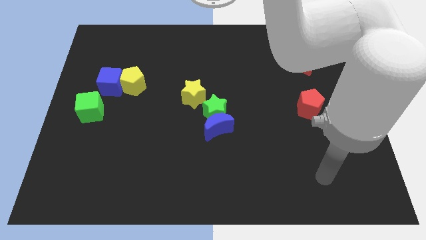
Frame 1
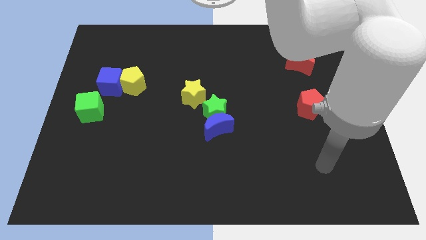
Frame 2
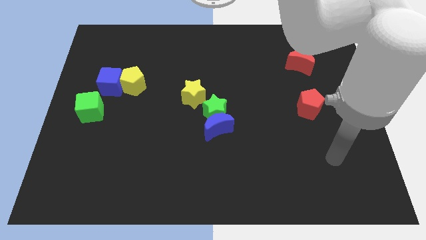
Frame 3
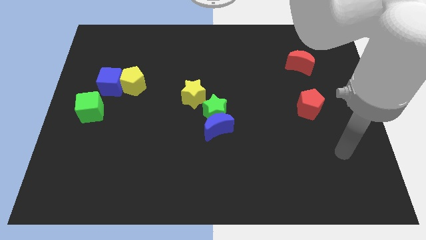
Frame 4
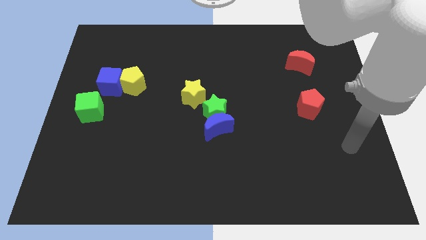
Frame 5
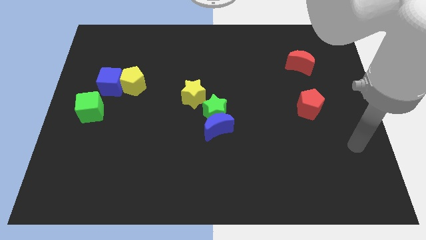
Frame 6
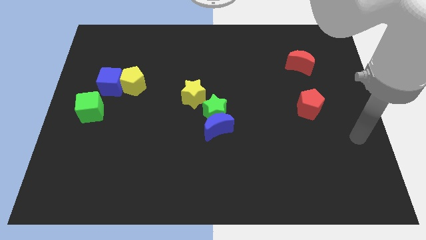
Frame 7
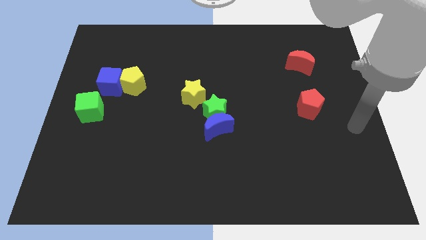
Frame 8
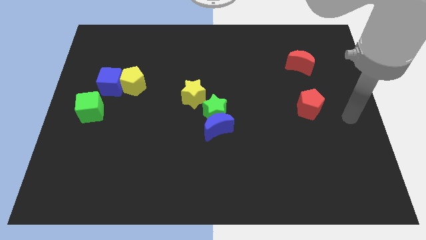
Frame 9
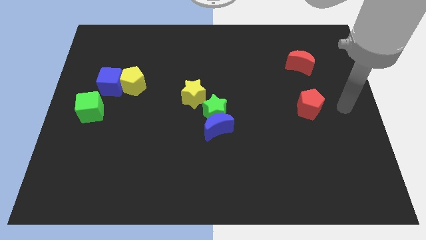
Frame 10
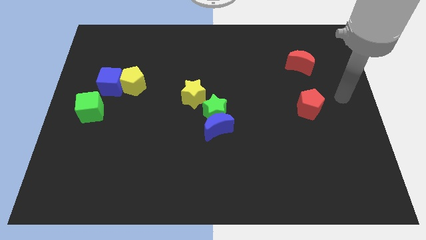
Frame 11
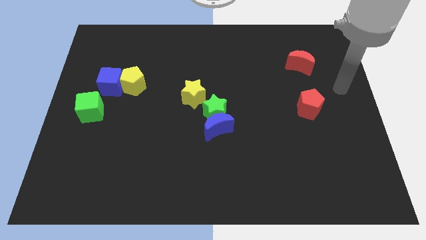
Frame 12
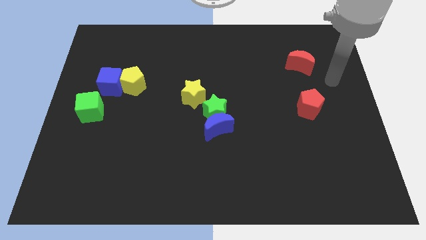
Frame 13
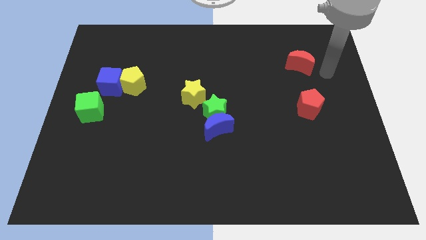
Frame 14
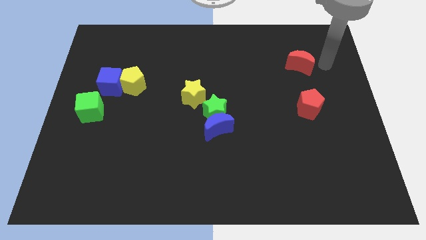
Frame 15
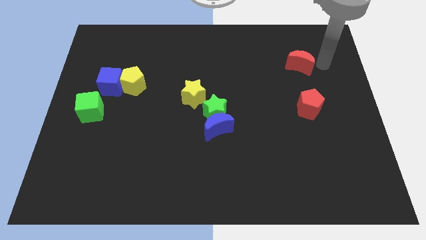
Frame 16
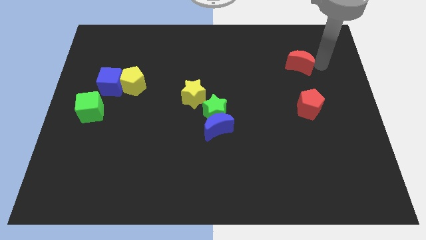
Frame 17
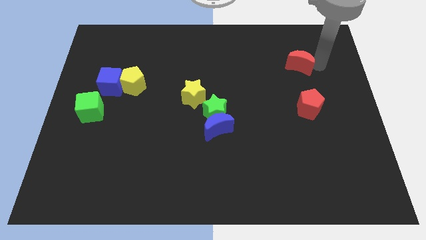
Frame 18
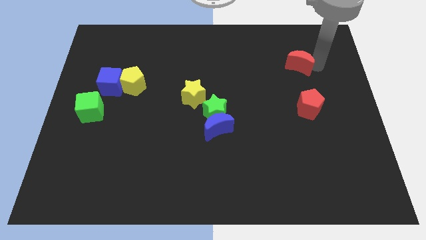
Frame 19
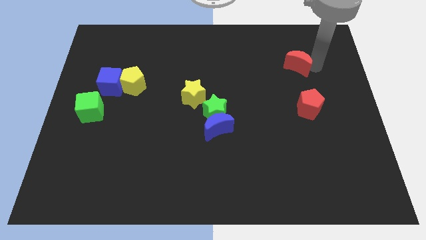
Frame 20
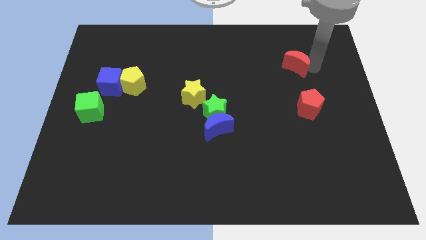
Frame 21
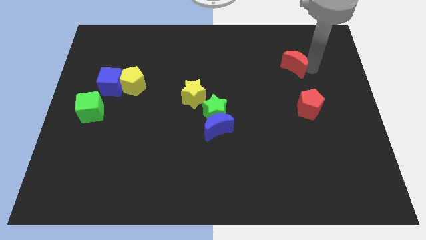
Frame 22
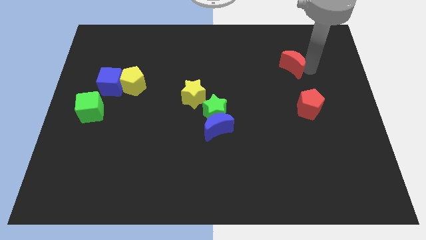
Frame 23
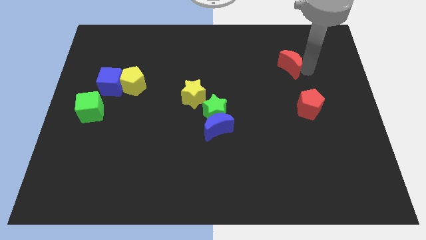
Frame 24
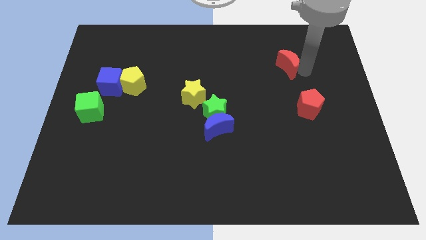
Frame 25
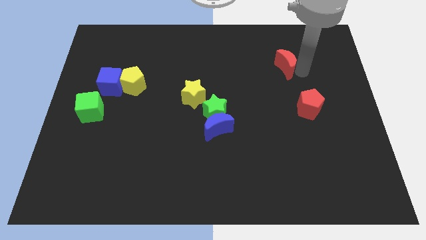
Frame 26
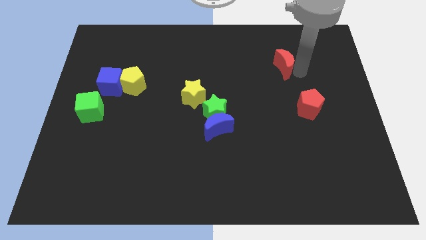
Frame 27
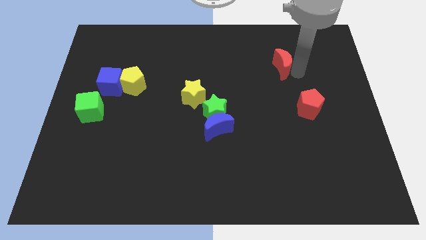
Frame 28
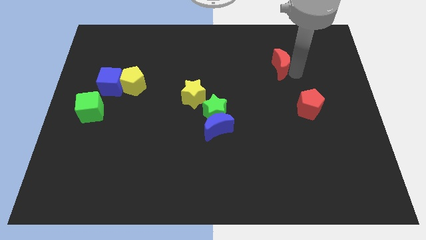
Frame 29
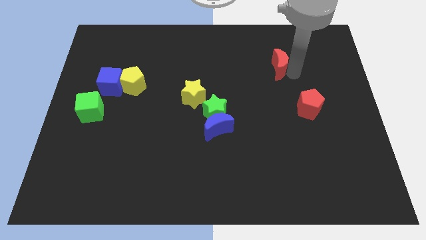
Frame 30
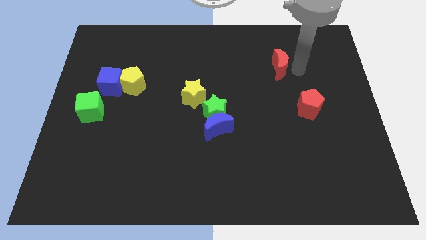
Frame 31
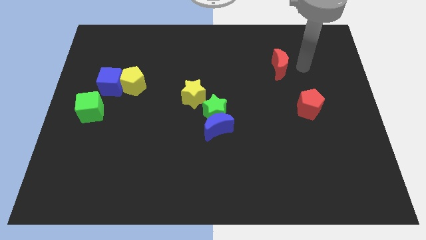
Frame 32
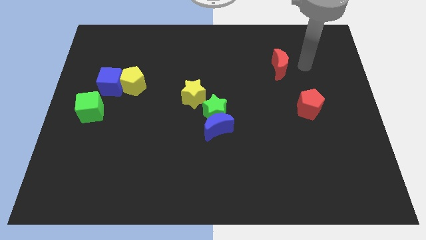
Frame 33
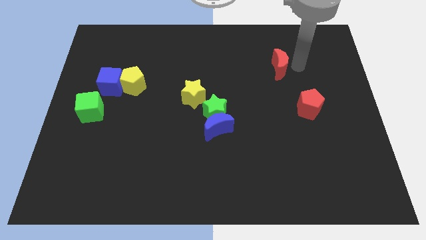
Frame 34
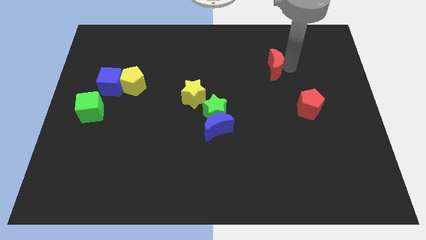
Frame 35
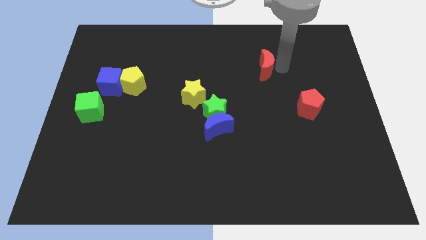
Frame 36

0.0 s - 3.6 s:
slightly slide the red moon to the left

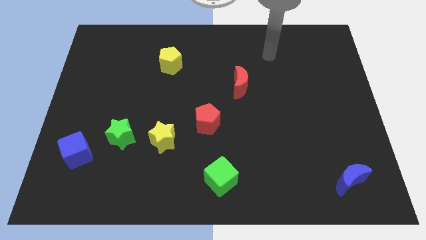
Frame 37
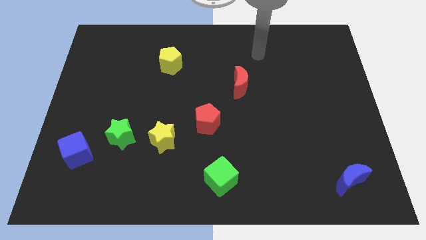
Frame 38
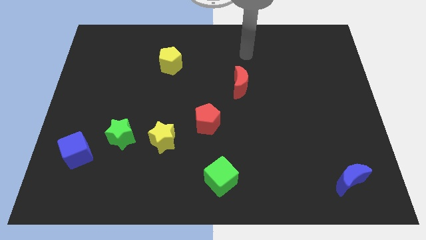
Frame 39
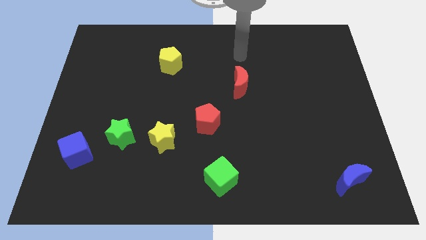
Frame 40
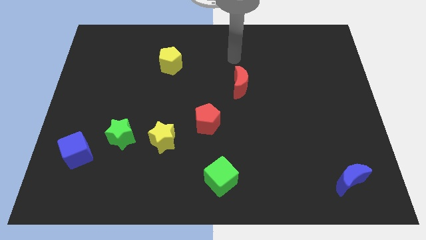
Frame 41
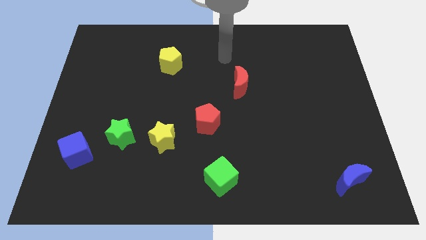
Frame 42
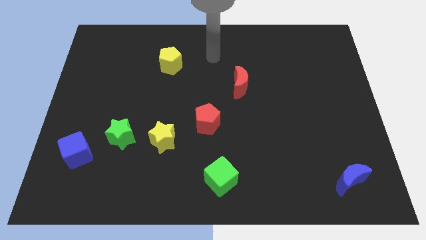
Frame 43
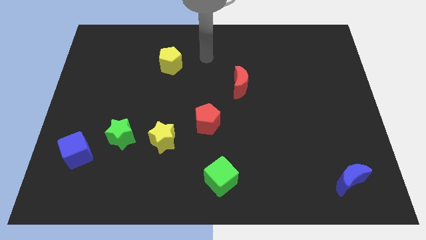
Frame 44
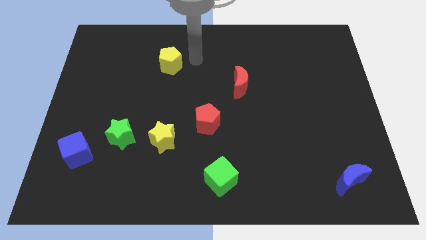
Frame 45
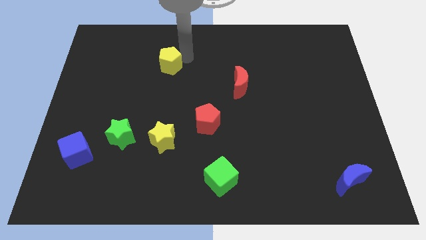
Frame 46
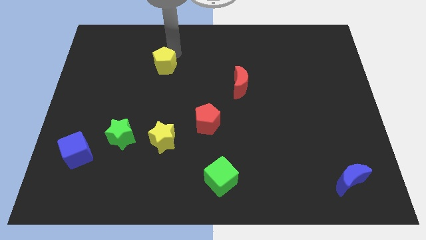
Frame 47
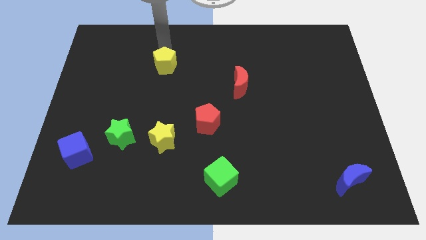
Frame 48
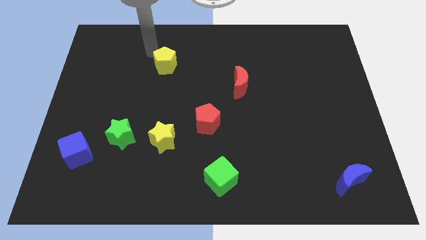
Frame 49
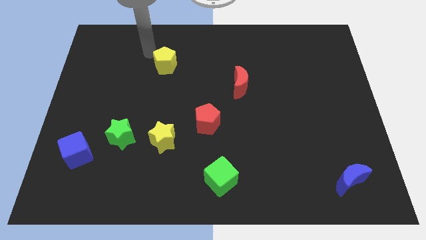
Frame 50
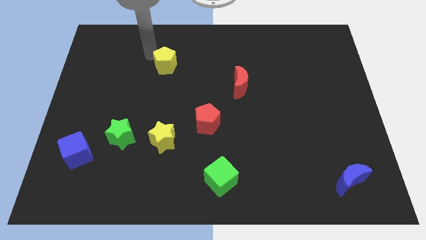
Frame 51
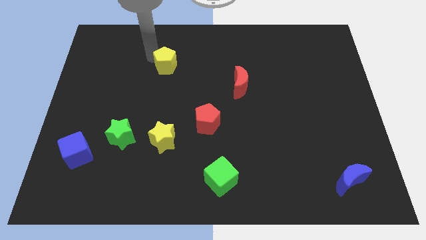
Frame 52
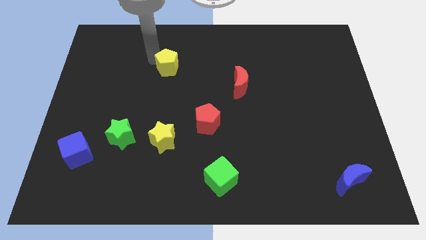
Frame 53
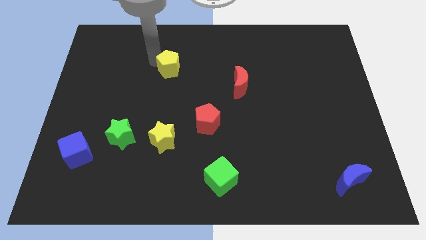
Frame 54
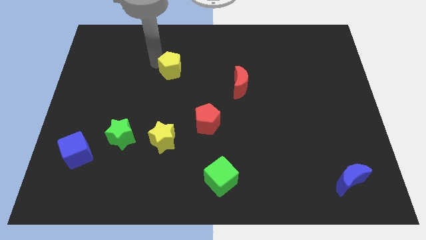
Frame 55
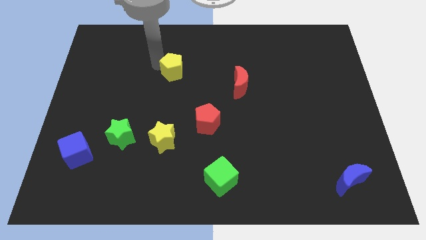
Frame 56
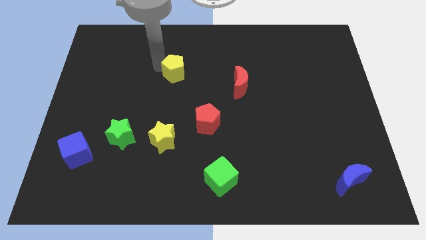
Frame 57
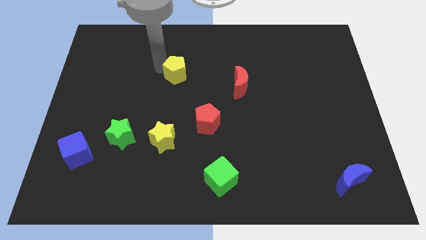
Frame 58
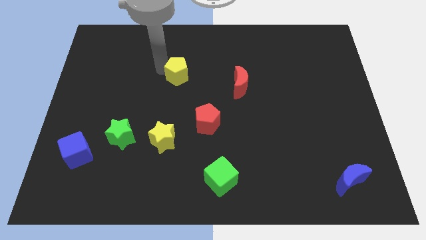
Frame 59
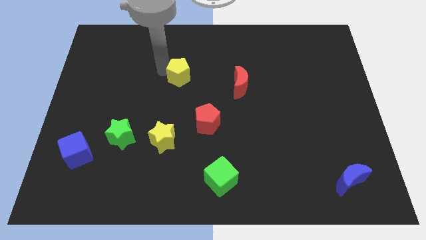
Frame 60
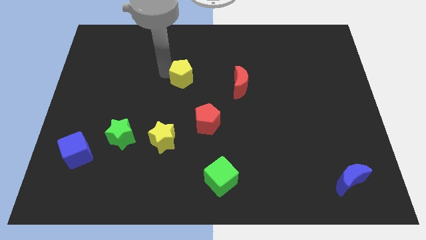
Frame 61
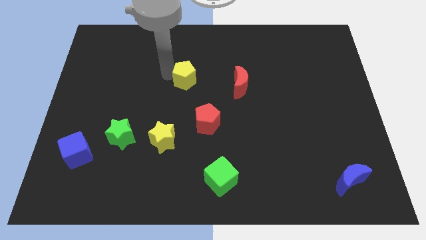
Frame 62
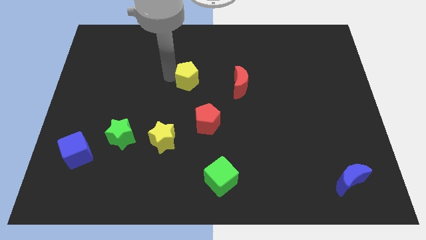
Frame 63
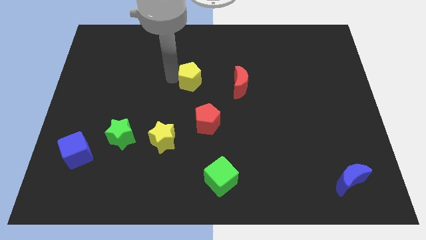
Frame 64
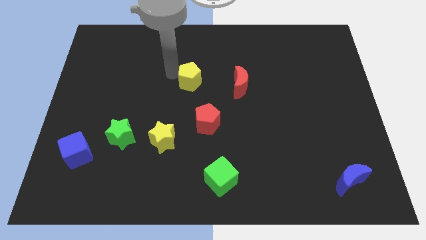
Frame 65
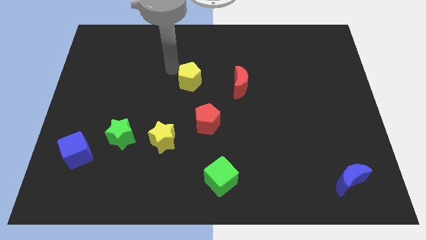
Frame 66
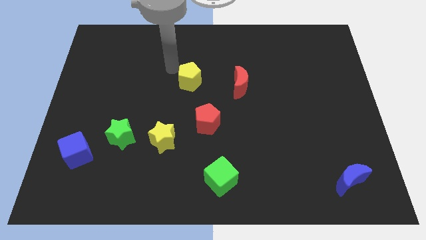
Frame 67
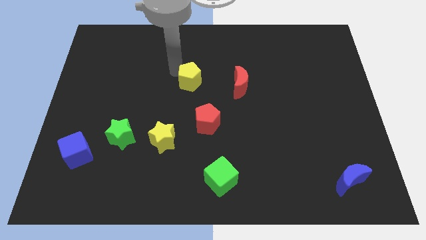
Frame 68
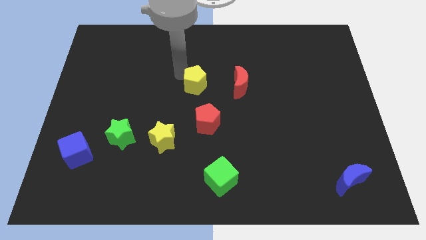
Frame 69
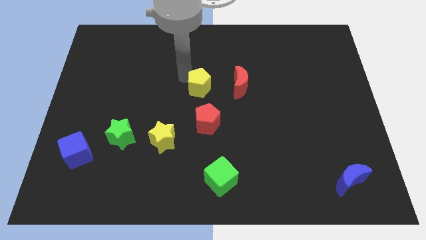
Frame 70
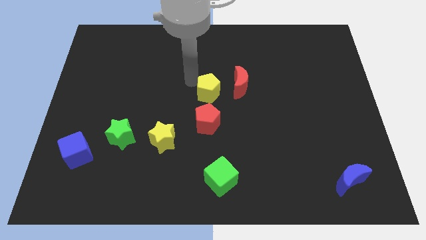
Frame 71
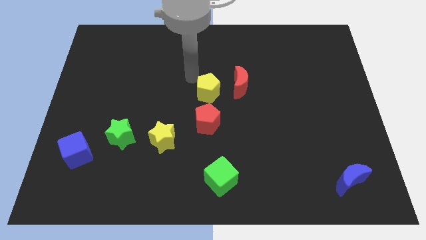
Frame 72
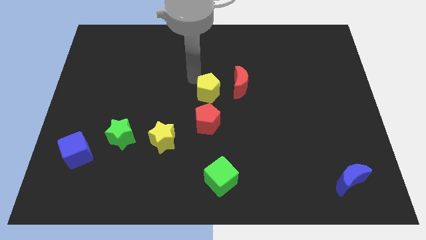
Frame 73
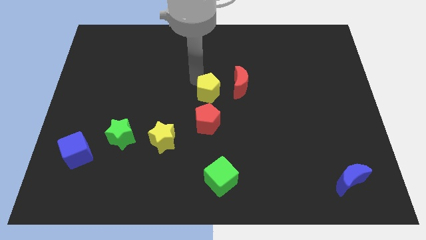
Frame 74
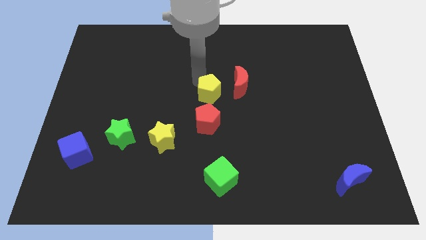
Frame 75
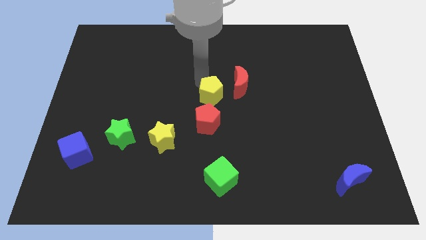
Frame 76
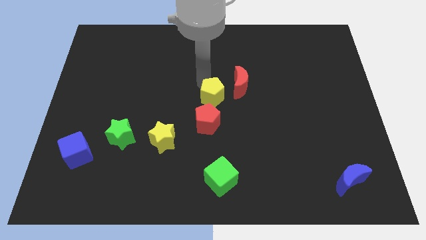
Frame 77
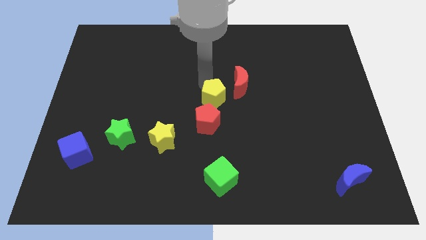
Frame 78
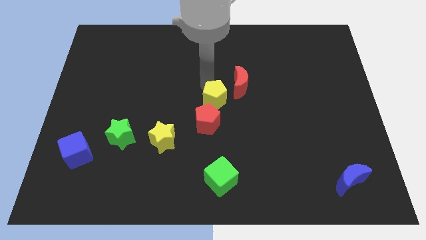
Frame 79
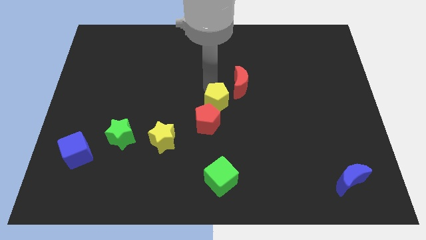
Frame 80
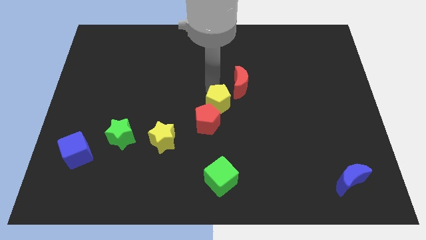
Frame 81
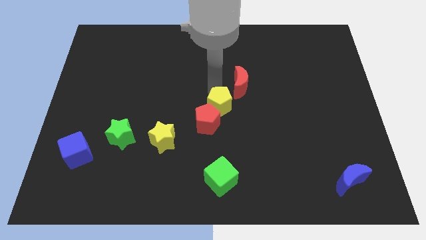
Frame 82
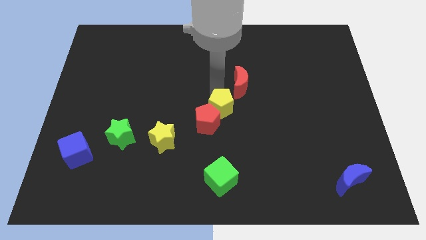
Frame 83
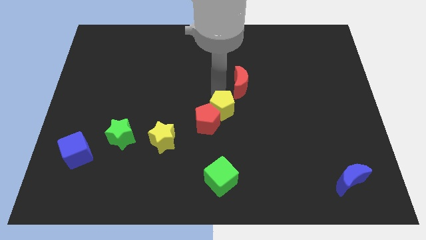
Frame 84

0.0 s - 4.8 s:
push the yellow pentagon down and then right
